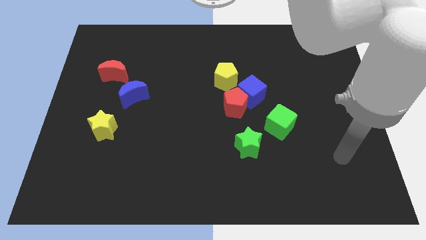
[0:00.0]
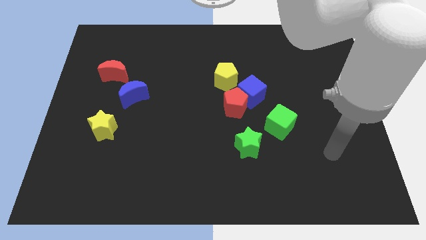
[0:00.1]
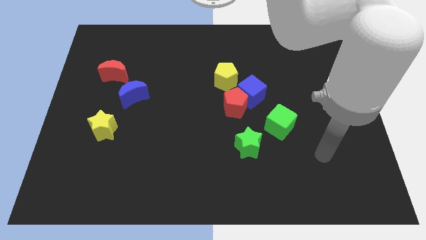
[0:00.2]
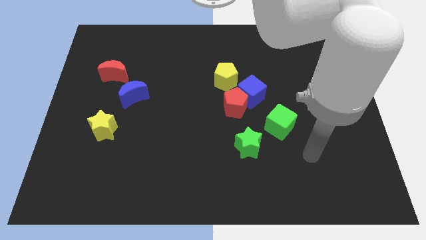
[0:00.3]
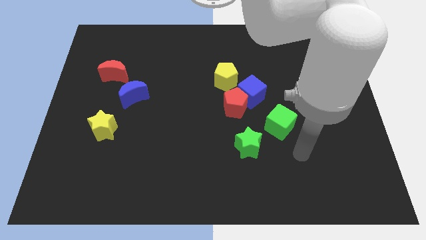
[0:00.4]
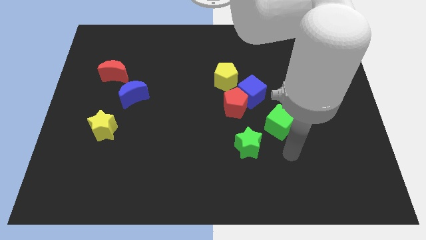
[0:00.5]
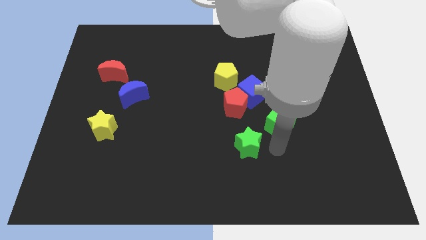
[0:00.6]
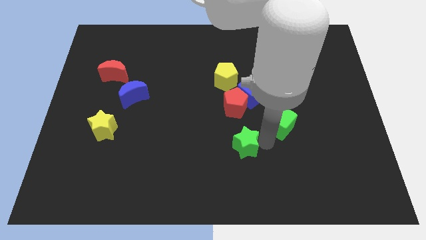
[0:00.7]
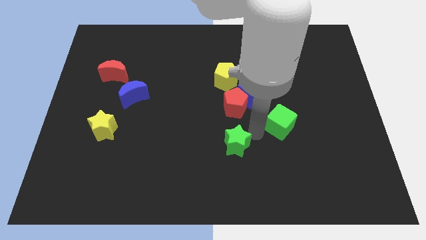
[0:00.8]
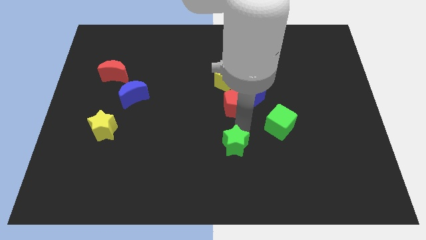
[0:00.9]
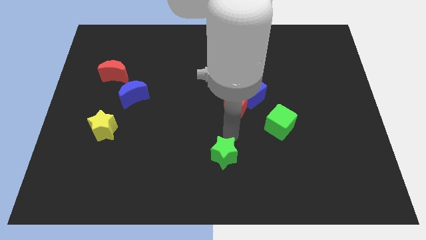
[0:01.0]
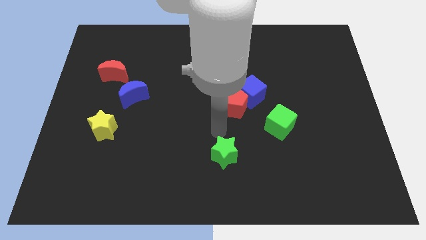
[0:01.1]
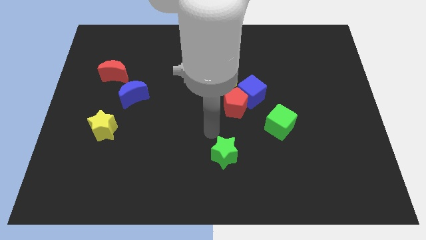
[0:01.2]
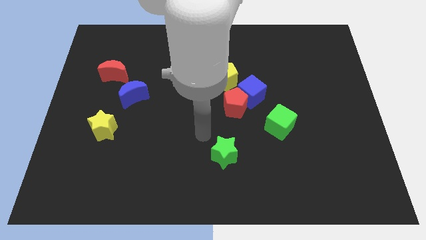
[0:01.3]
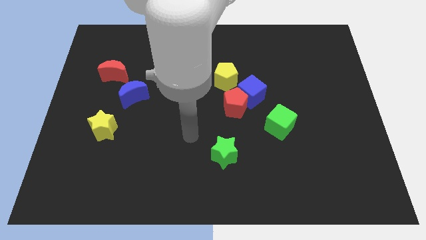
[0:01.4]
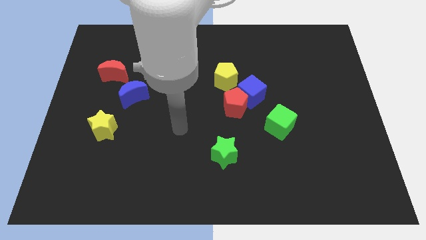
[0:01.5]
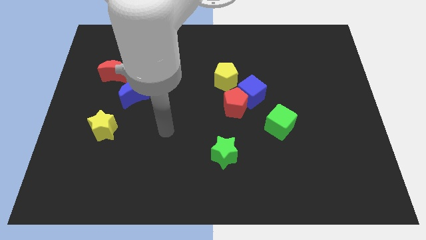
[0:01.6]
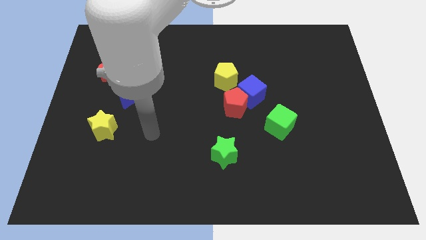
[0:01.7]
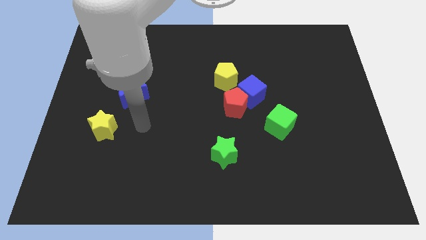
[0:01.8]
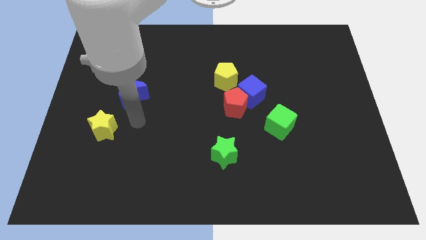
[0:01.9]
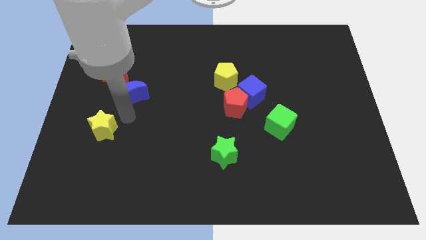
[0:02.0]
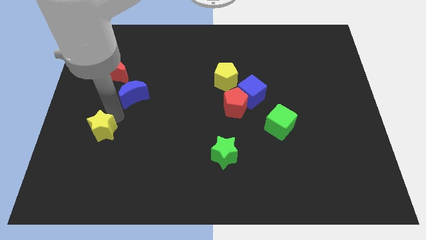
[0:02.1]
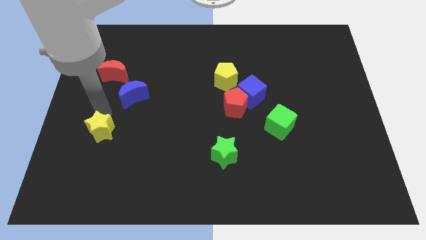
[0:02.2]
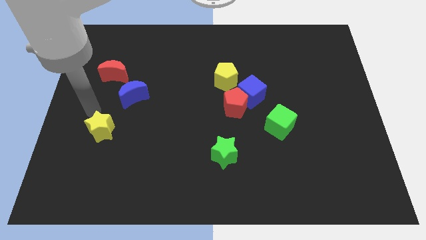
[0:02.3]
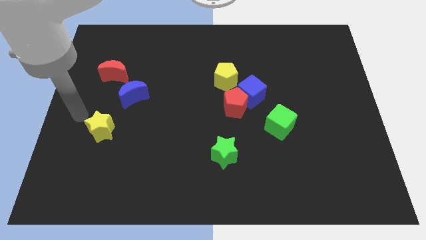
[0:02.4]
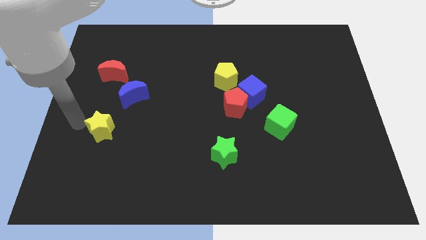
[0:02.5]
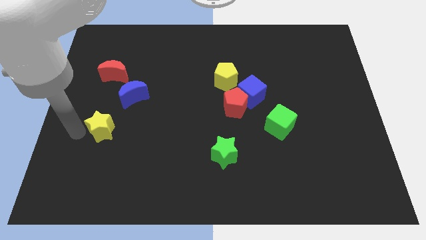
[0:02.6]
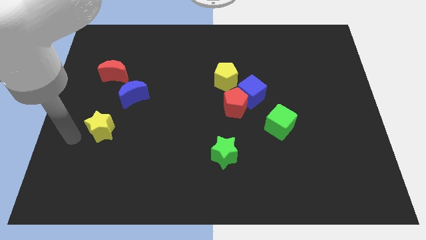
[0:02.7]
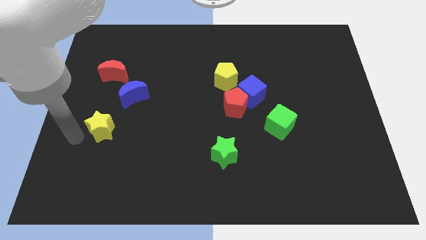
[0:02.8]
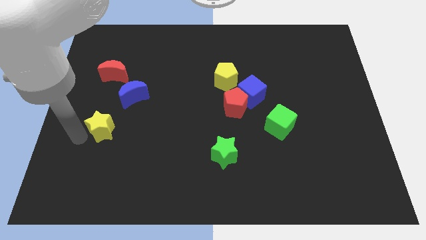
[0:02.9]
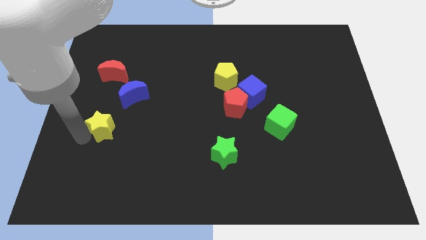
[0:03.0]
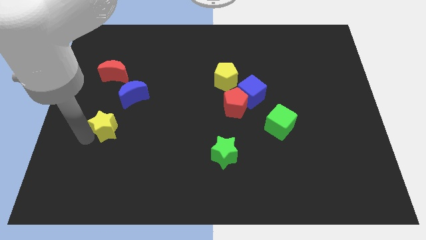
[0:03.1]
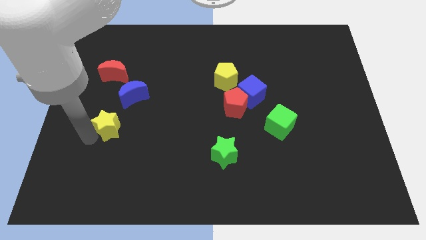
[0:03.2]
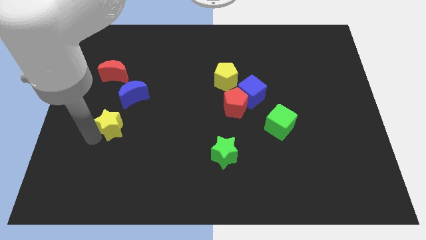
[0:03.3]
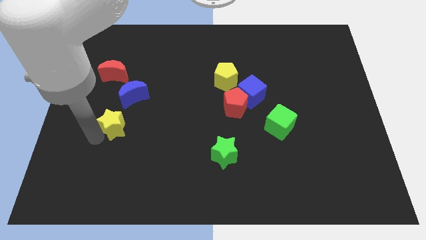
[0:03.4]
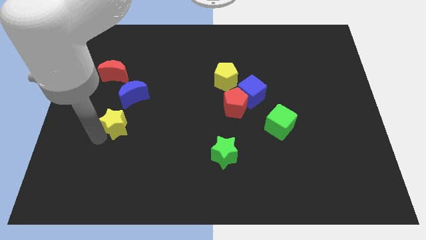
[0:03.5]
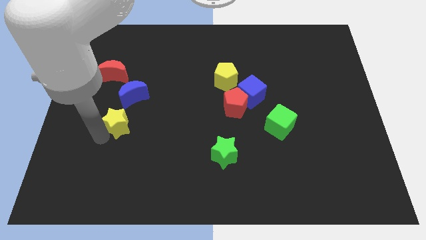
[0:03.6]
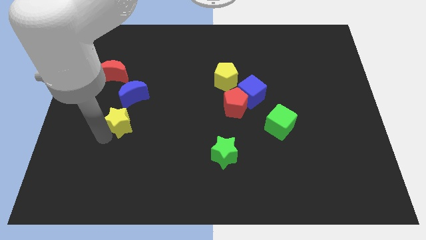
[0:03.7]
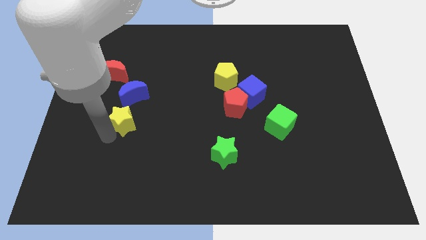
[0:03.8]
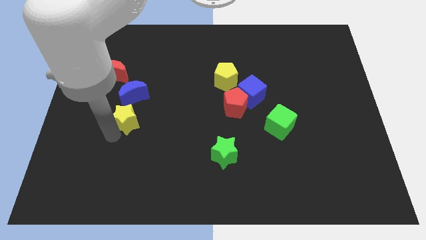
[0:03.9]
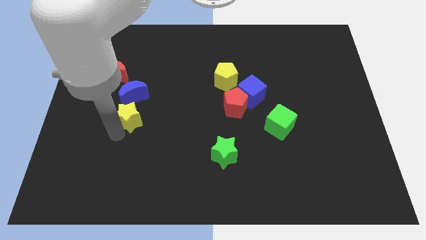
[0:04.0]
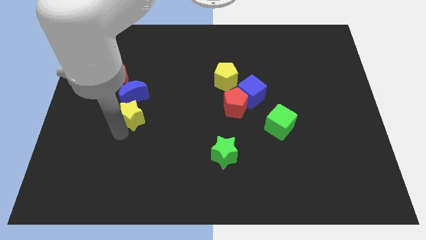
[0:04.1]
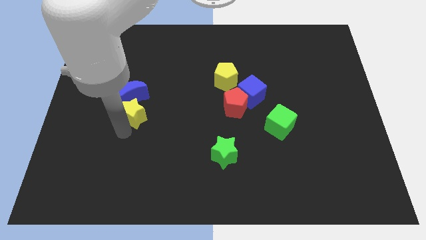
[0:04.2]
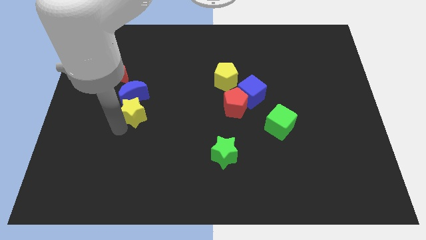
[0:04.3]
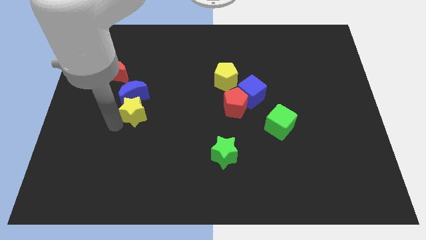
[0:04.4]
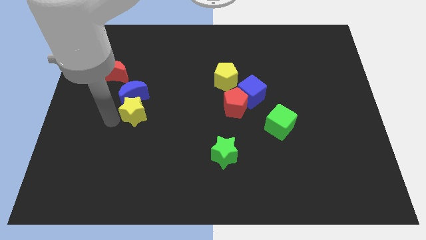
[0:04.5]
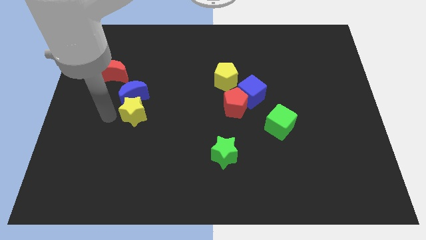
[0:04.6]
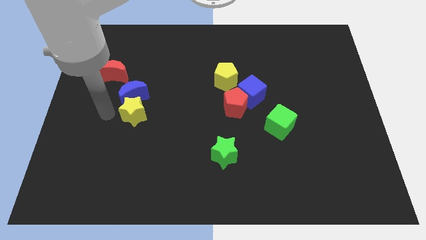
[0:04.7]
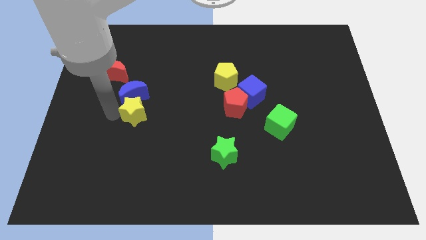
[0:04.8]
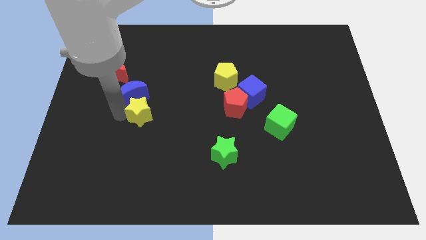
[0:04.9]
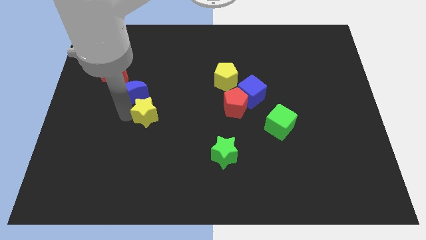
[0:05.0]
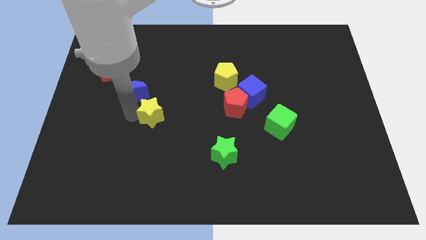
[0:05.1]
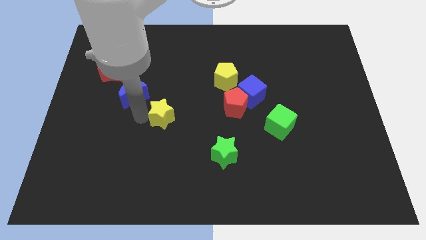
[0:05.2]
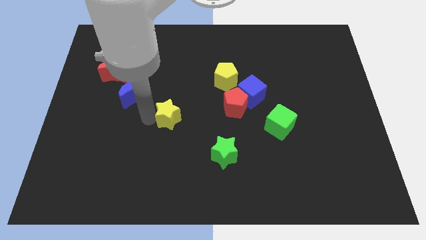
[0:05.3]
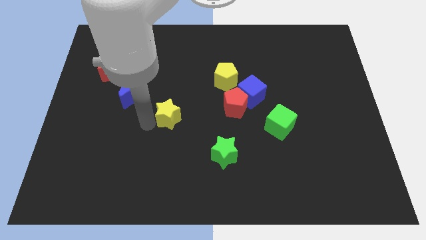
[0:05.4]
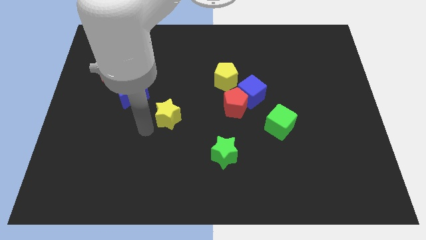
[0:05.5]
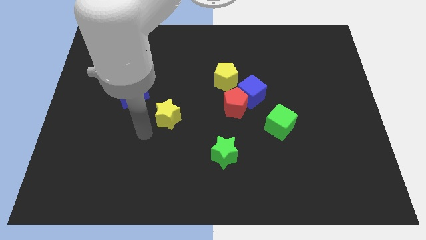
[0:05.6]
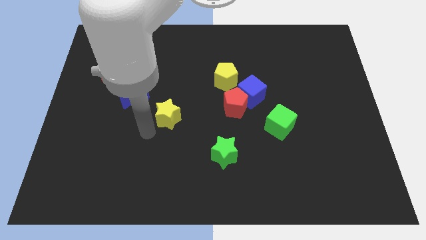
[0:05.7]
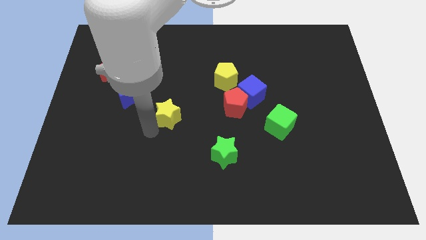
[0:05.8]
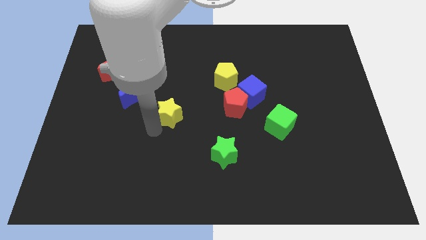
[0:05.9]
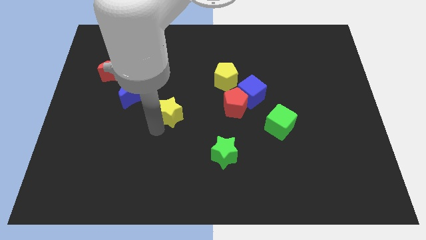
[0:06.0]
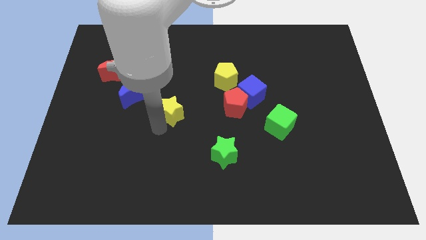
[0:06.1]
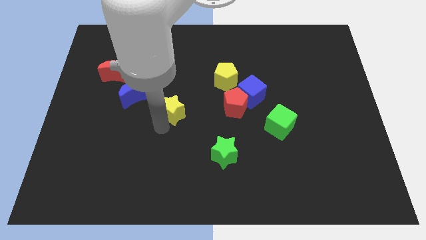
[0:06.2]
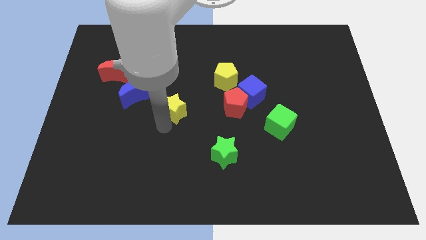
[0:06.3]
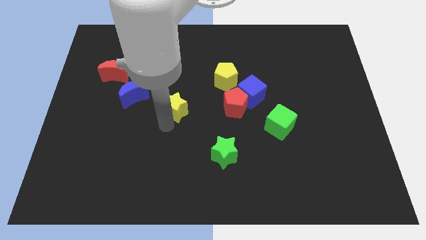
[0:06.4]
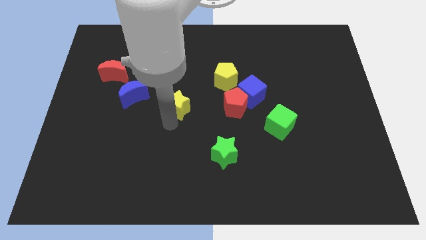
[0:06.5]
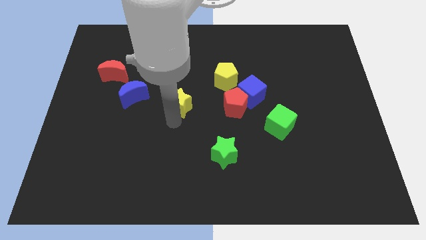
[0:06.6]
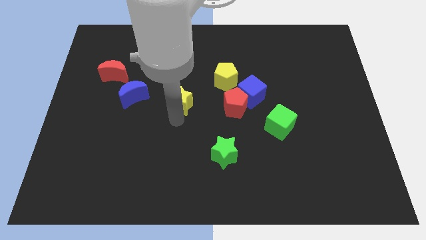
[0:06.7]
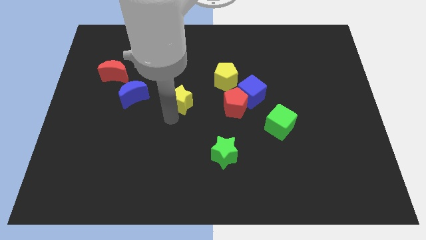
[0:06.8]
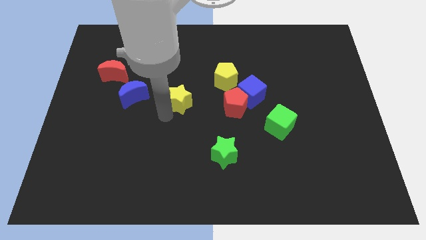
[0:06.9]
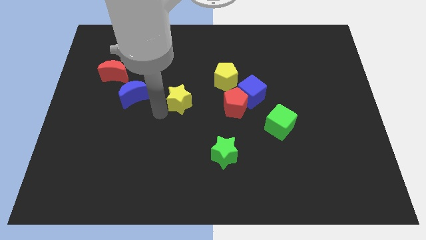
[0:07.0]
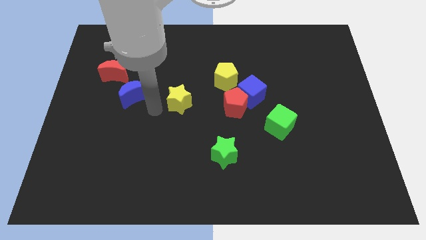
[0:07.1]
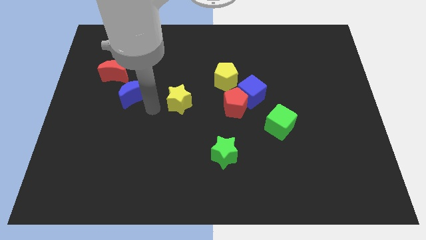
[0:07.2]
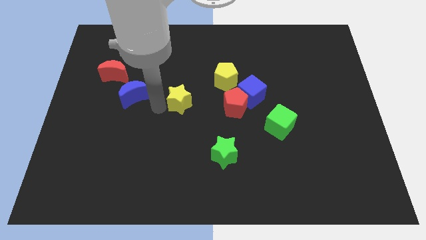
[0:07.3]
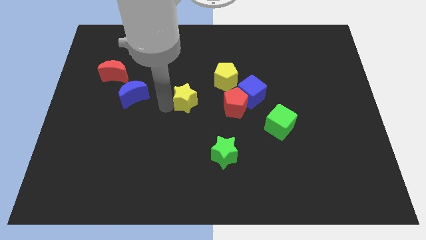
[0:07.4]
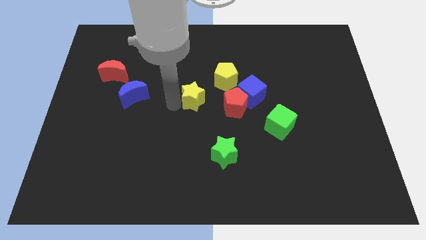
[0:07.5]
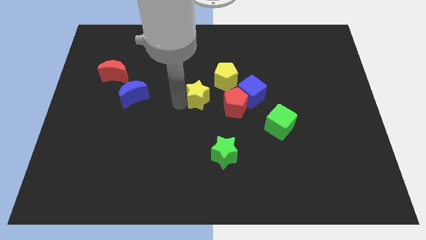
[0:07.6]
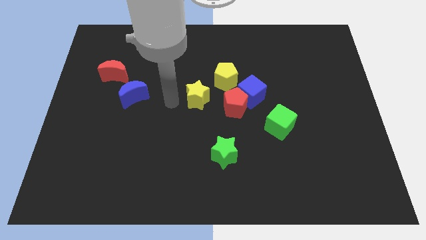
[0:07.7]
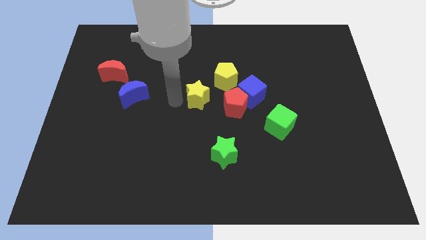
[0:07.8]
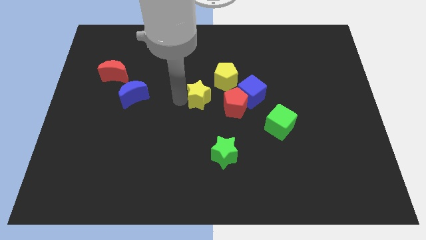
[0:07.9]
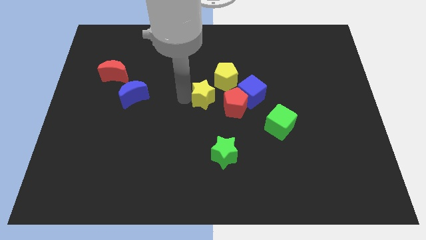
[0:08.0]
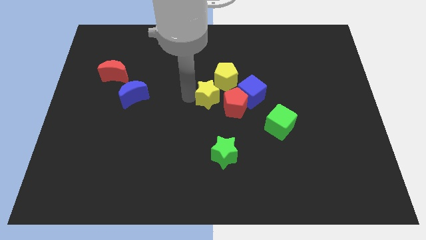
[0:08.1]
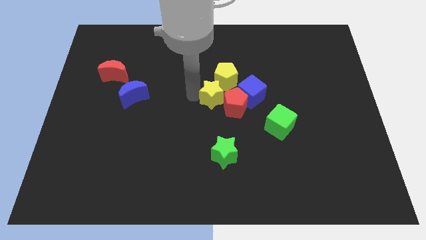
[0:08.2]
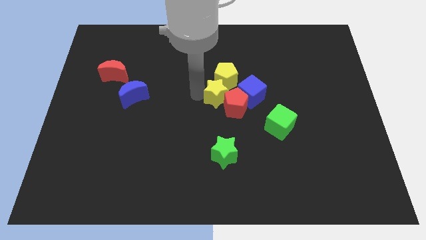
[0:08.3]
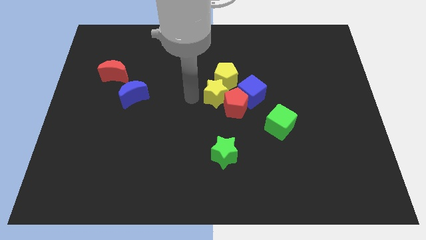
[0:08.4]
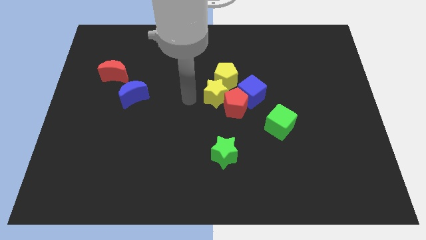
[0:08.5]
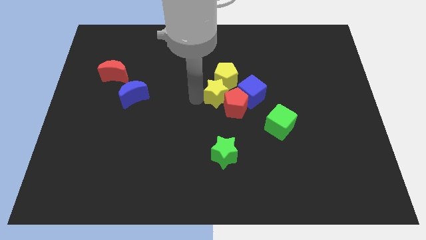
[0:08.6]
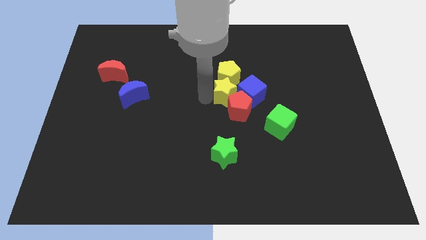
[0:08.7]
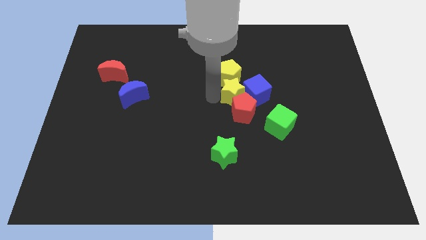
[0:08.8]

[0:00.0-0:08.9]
move the yellow star next to the blue cube
